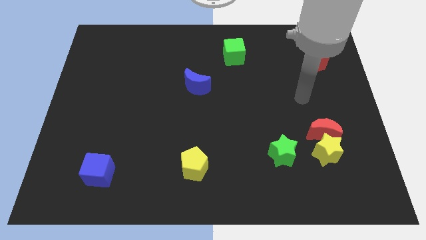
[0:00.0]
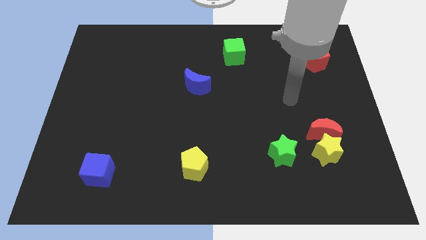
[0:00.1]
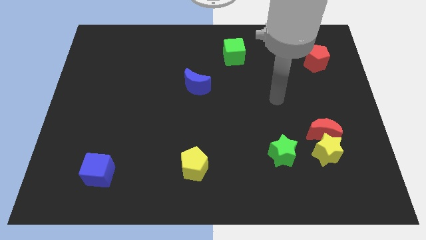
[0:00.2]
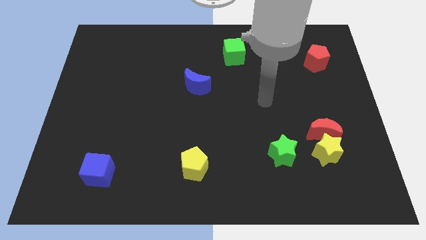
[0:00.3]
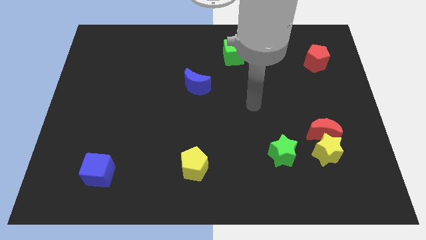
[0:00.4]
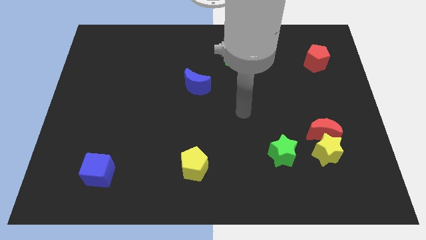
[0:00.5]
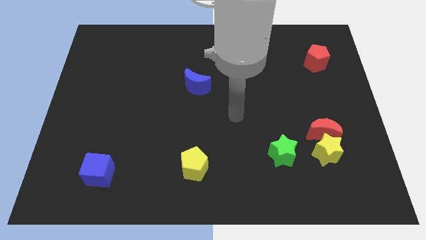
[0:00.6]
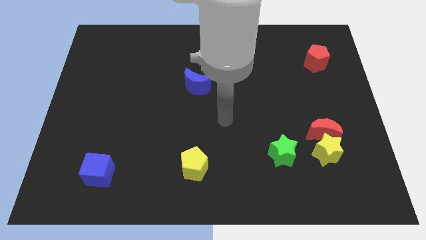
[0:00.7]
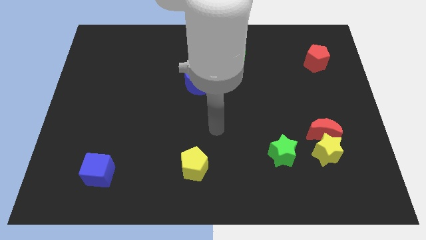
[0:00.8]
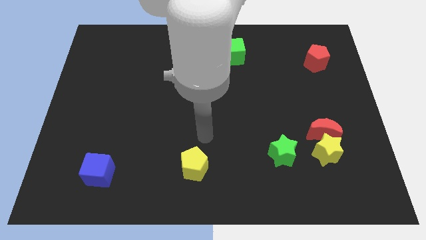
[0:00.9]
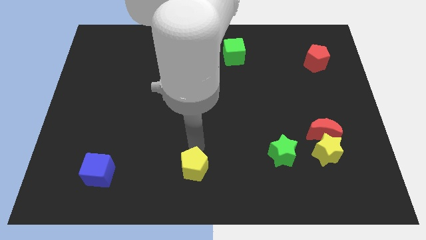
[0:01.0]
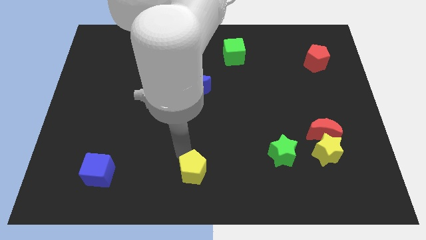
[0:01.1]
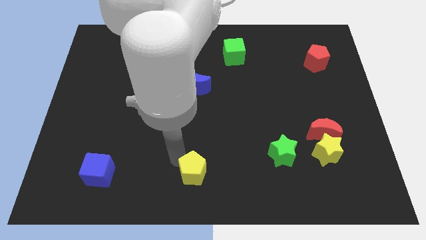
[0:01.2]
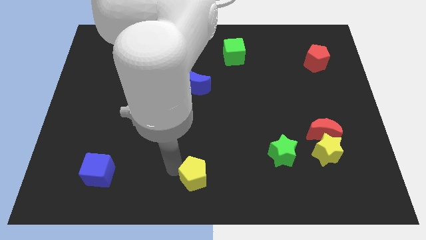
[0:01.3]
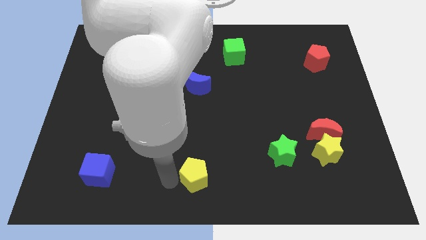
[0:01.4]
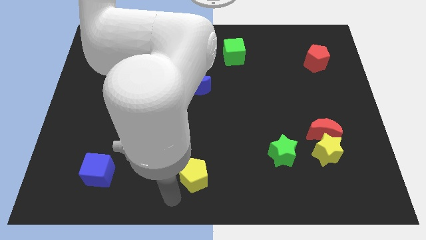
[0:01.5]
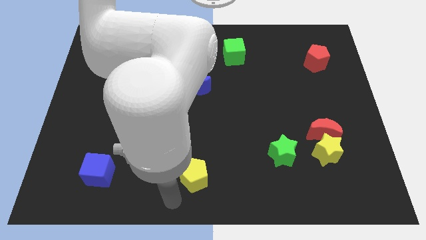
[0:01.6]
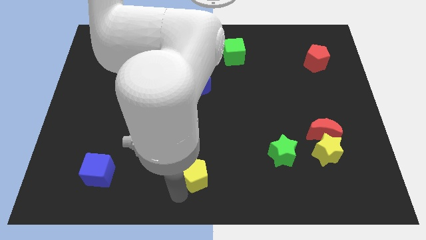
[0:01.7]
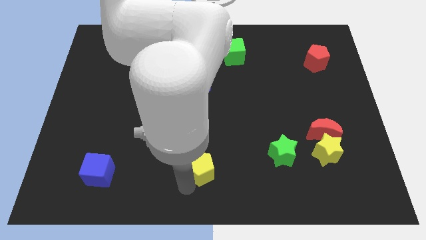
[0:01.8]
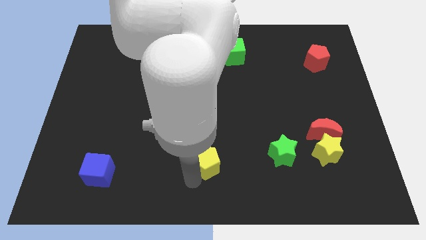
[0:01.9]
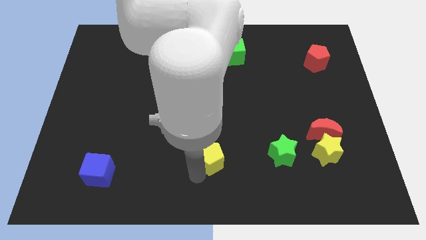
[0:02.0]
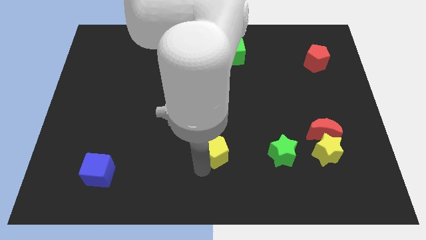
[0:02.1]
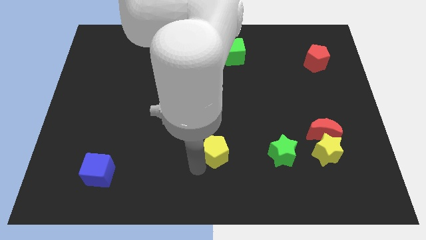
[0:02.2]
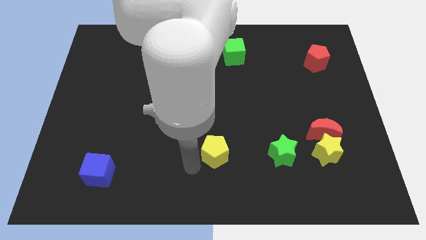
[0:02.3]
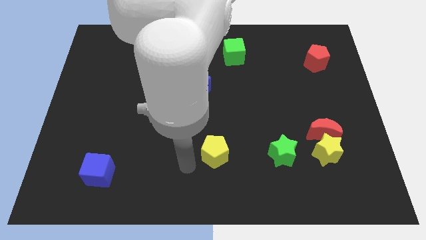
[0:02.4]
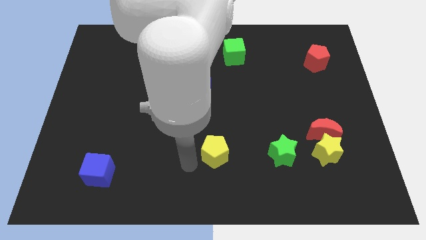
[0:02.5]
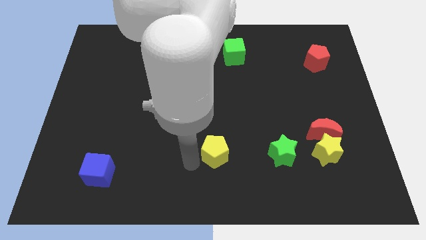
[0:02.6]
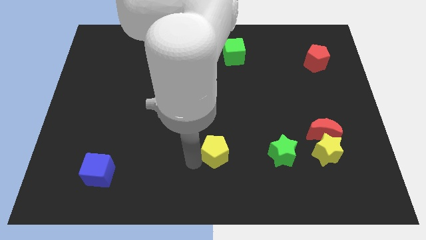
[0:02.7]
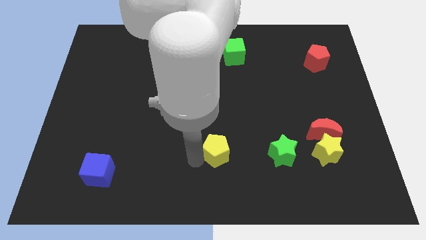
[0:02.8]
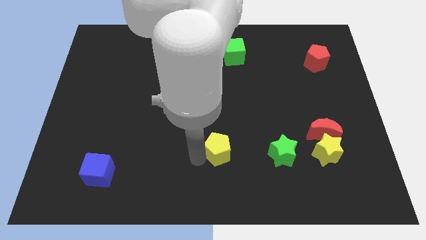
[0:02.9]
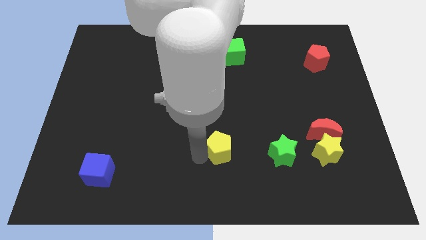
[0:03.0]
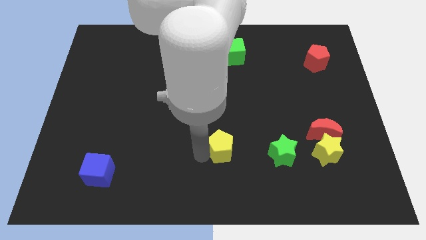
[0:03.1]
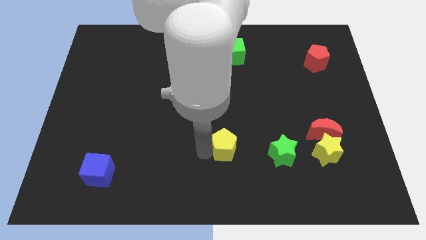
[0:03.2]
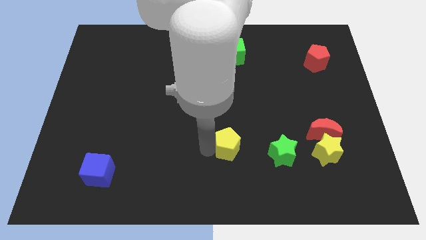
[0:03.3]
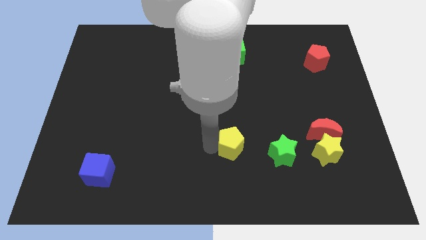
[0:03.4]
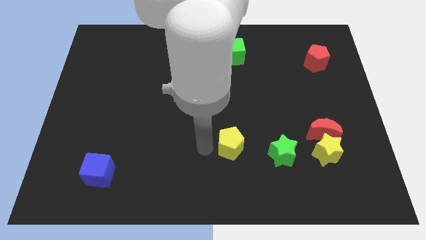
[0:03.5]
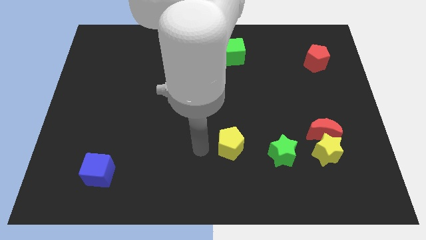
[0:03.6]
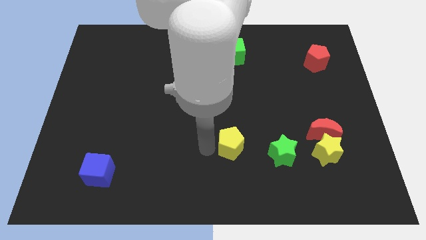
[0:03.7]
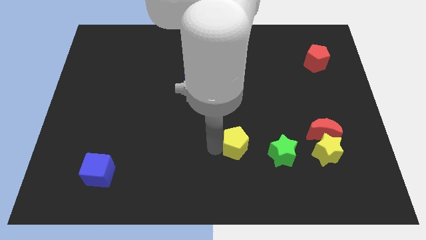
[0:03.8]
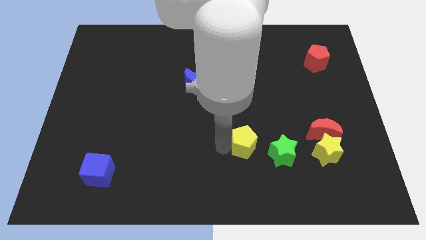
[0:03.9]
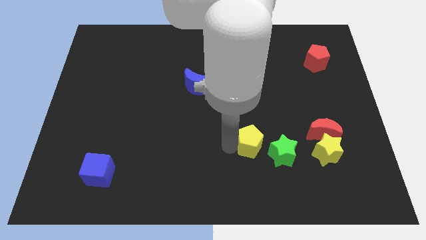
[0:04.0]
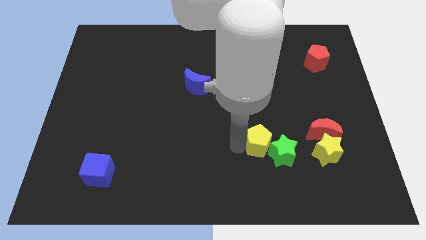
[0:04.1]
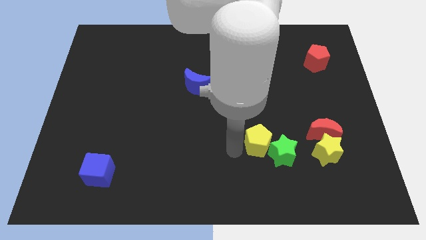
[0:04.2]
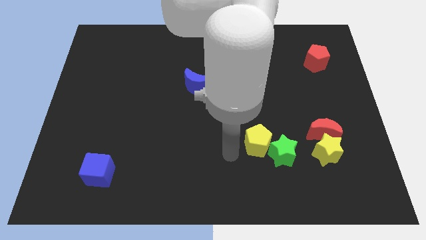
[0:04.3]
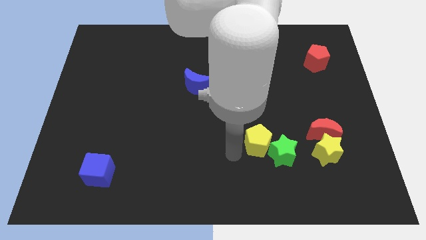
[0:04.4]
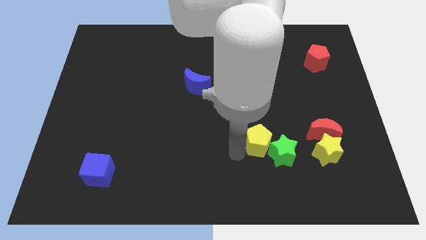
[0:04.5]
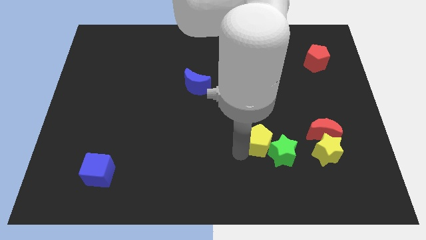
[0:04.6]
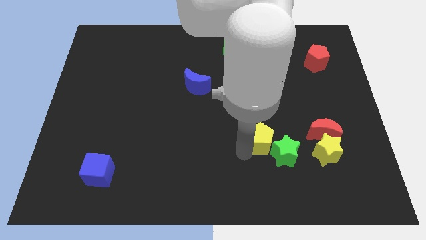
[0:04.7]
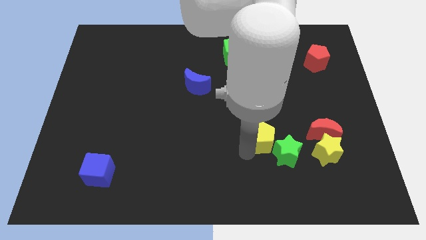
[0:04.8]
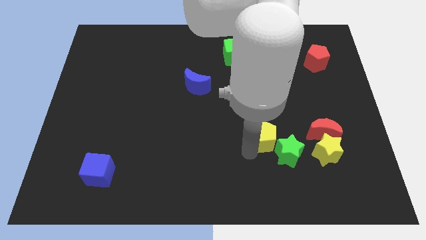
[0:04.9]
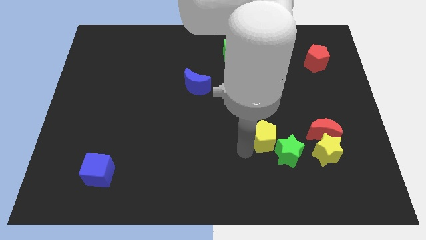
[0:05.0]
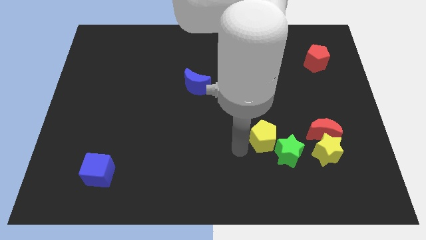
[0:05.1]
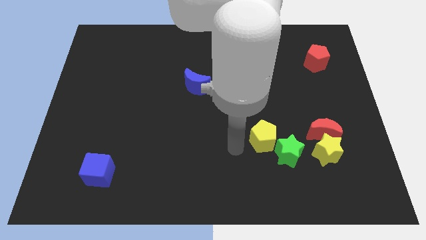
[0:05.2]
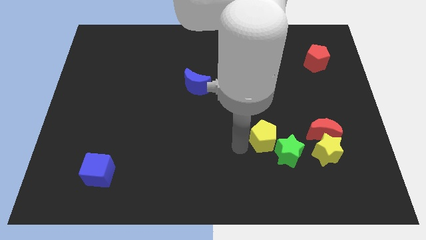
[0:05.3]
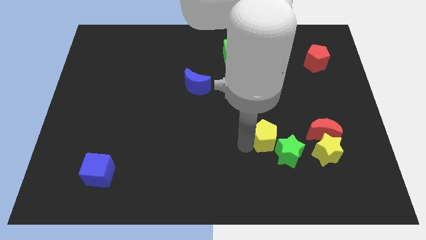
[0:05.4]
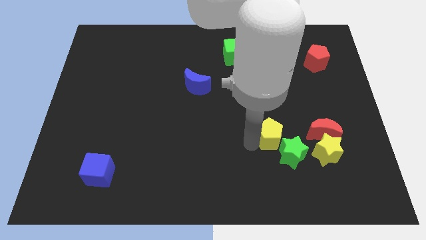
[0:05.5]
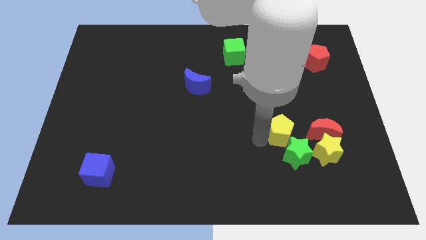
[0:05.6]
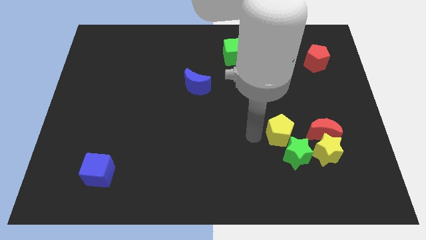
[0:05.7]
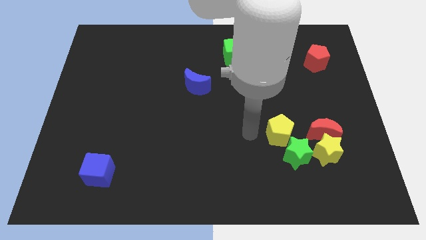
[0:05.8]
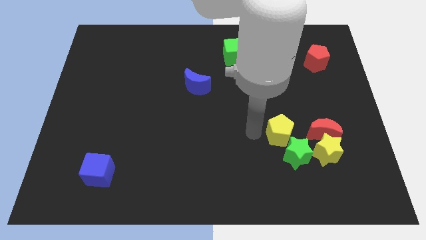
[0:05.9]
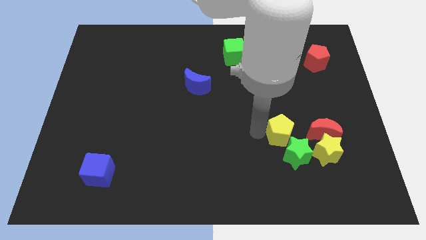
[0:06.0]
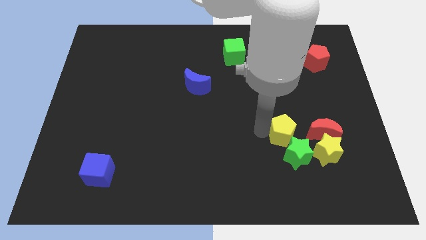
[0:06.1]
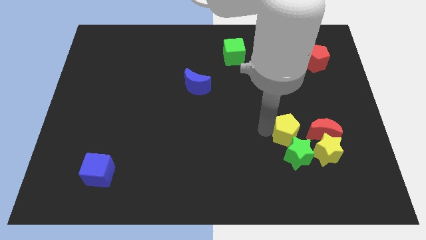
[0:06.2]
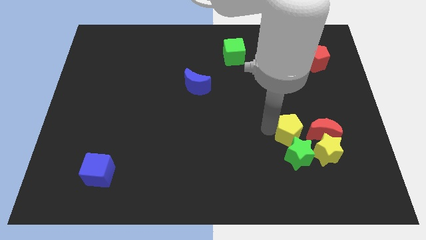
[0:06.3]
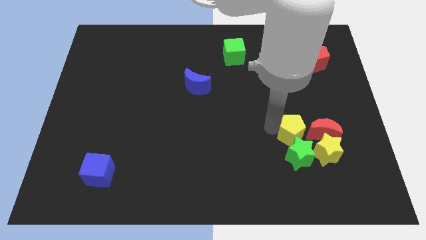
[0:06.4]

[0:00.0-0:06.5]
push the yellow pentagon to the top right of the green star
